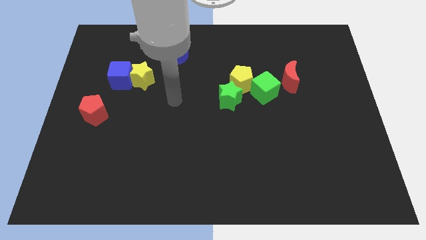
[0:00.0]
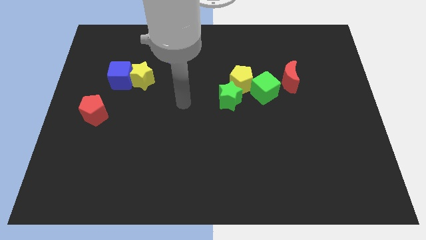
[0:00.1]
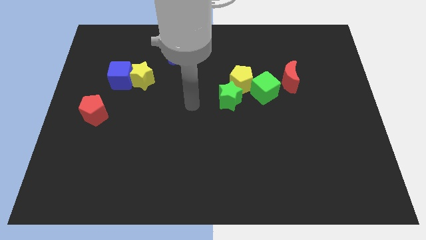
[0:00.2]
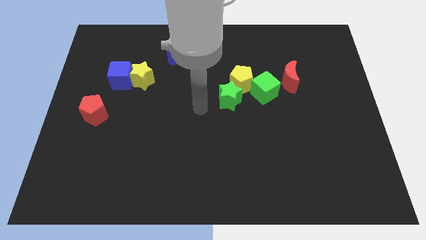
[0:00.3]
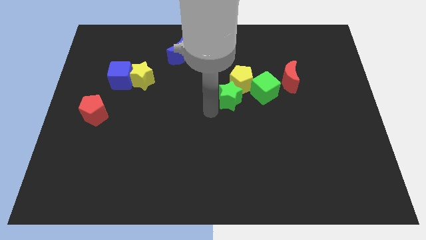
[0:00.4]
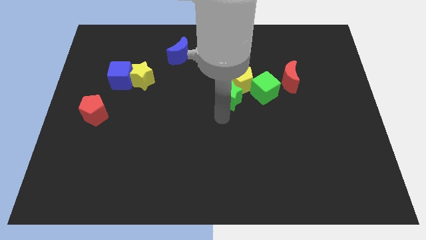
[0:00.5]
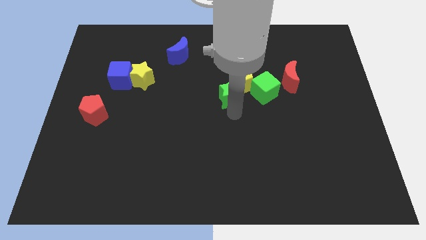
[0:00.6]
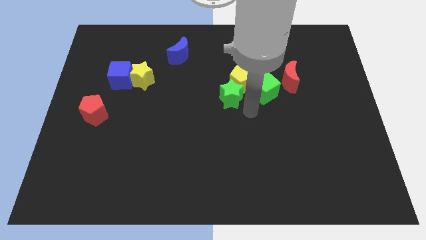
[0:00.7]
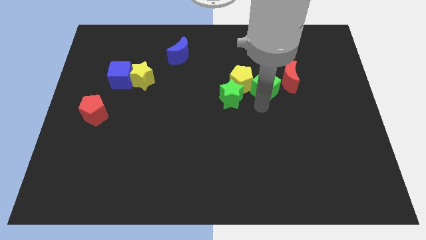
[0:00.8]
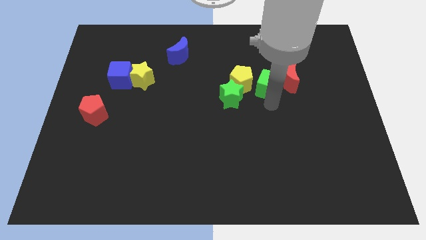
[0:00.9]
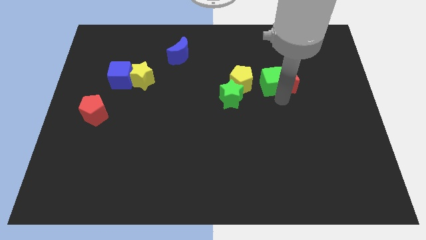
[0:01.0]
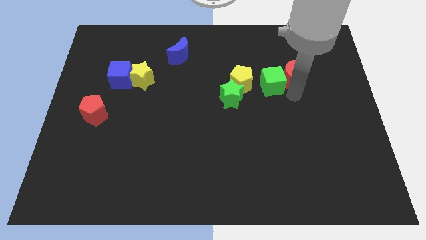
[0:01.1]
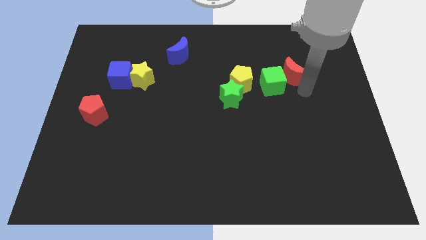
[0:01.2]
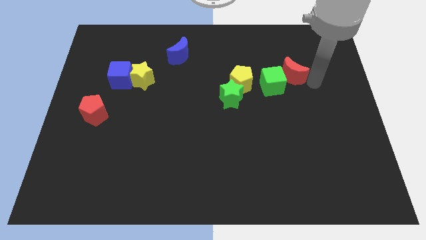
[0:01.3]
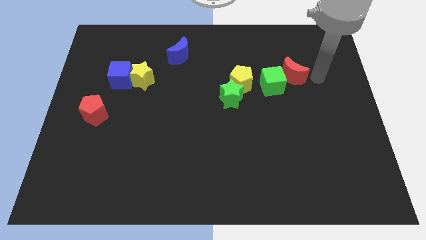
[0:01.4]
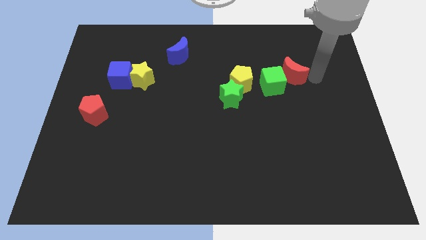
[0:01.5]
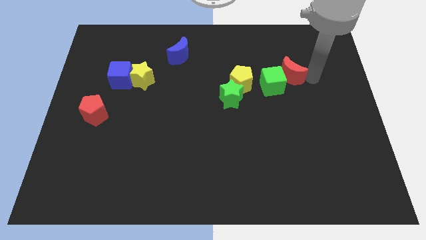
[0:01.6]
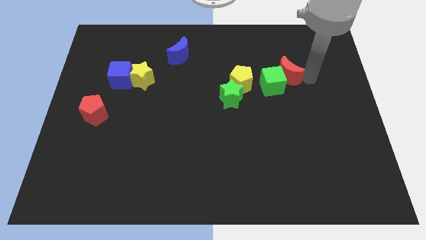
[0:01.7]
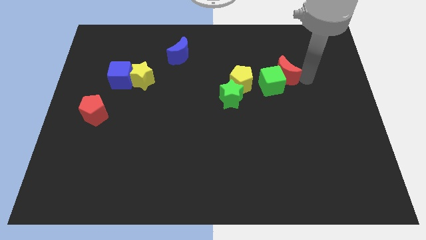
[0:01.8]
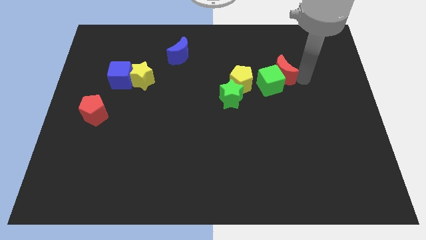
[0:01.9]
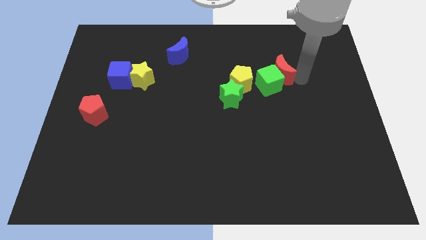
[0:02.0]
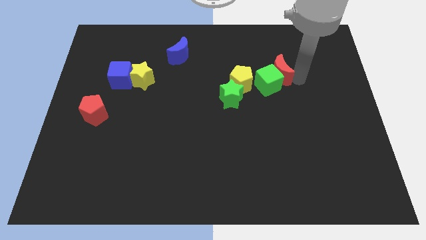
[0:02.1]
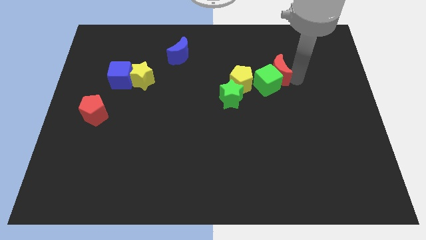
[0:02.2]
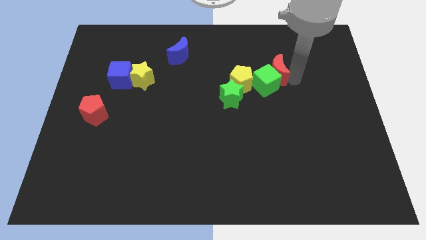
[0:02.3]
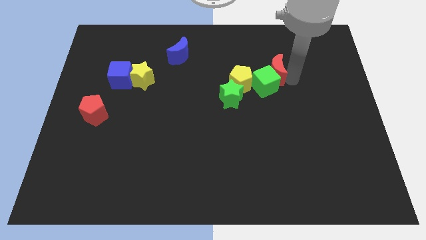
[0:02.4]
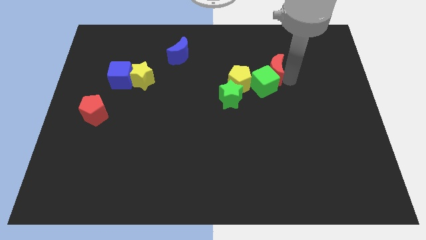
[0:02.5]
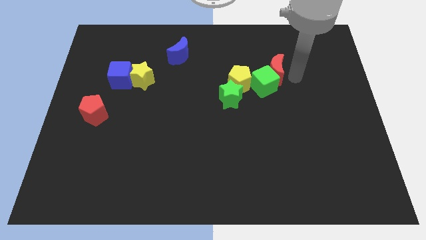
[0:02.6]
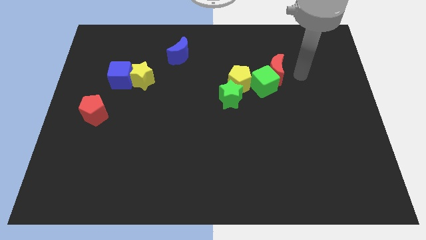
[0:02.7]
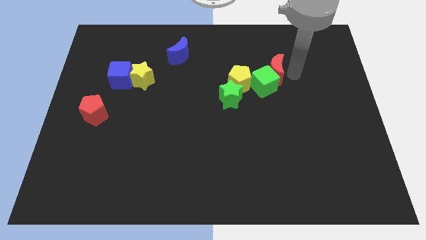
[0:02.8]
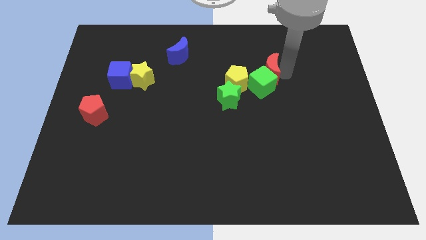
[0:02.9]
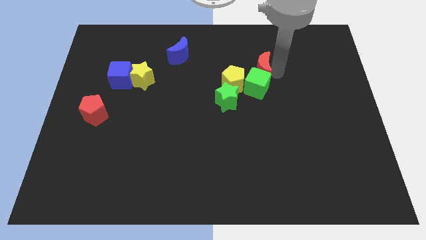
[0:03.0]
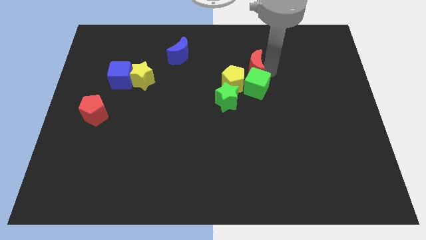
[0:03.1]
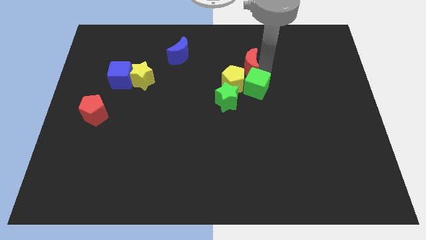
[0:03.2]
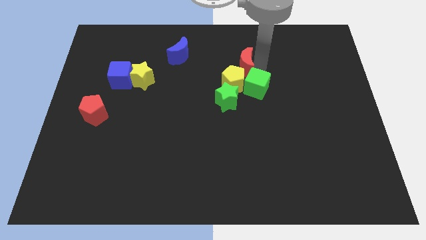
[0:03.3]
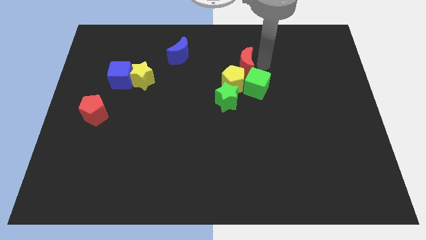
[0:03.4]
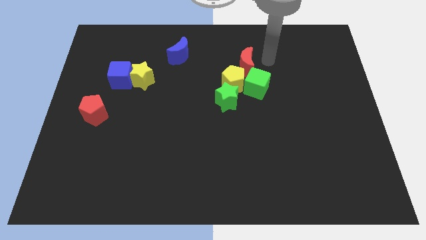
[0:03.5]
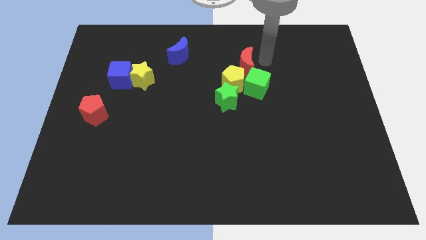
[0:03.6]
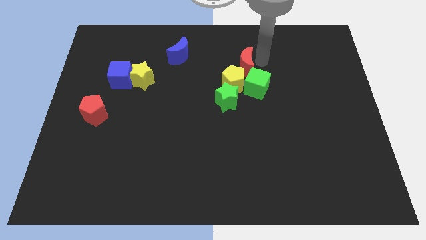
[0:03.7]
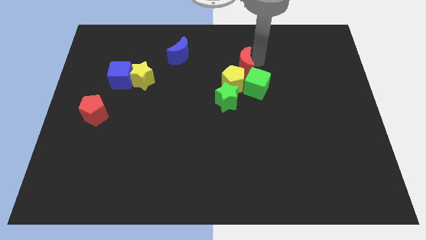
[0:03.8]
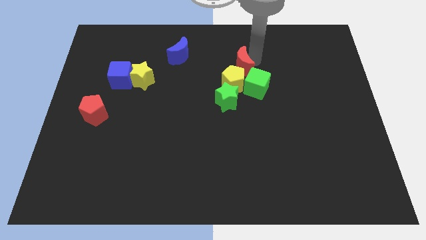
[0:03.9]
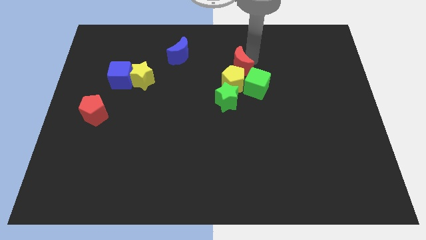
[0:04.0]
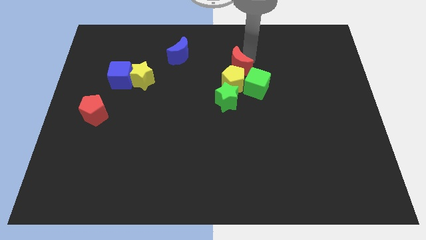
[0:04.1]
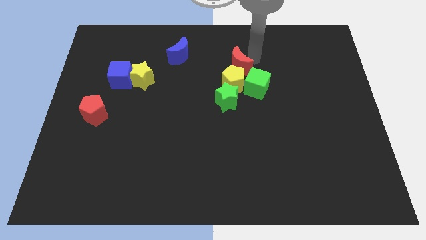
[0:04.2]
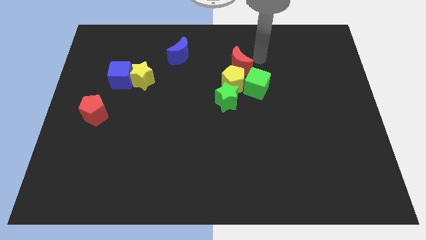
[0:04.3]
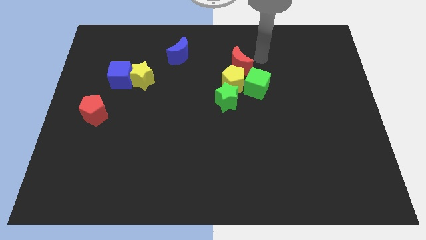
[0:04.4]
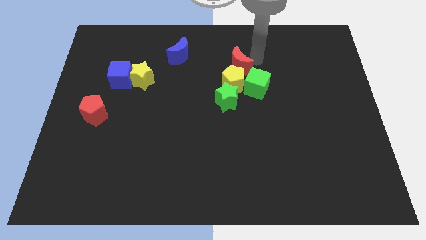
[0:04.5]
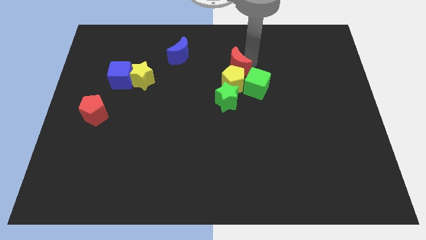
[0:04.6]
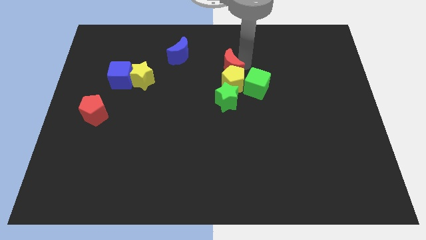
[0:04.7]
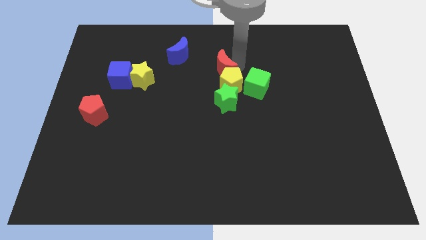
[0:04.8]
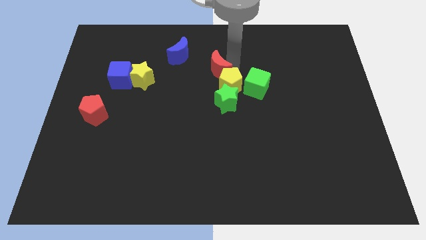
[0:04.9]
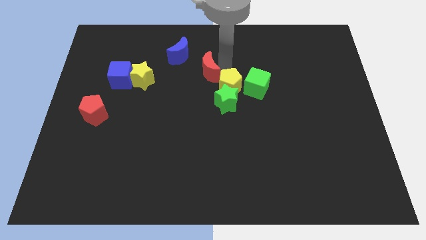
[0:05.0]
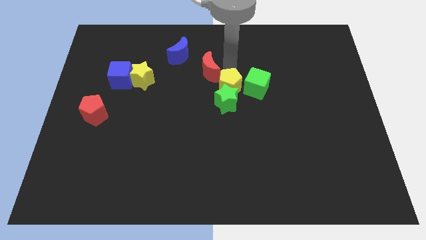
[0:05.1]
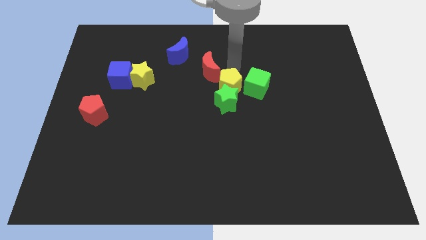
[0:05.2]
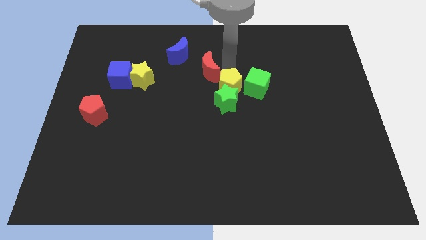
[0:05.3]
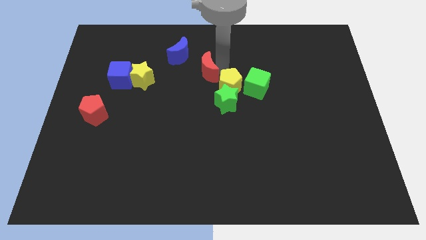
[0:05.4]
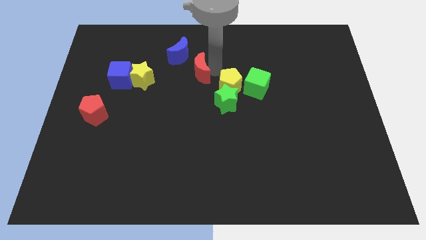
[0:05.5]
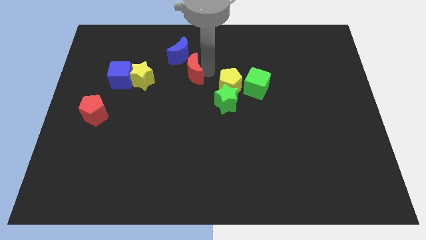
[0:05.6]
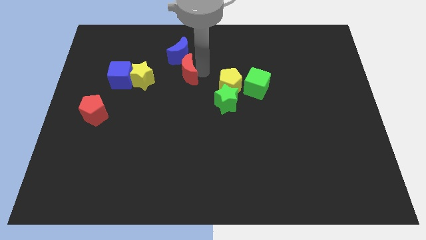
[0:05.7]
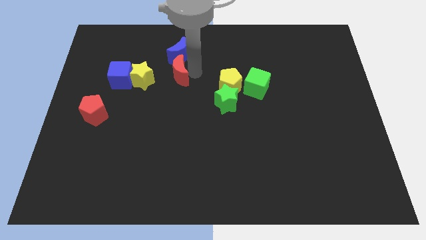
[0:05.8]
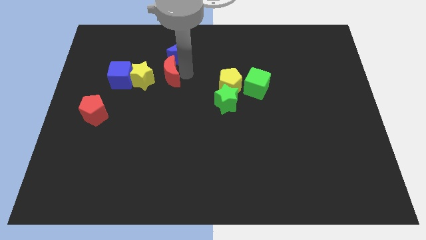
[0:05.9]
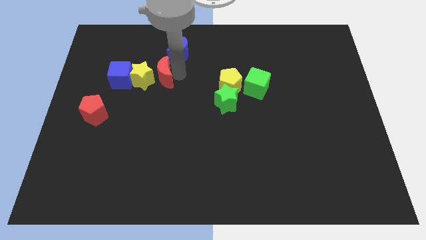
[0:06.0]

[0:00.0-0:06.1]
slide the red moon towards the yellow star

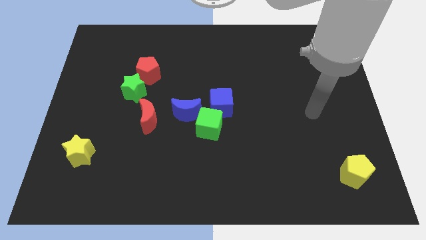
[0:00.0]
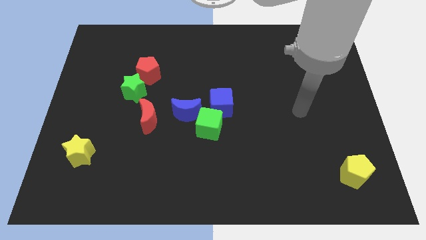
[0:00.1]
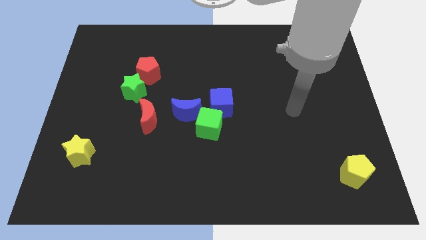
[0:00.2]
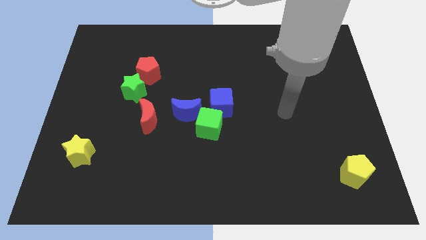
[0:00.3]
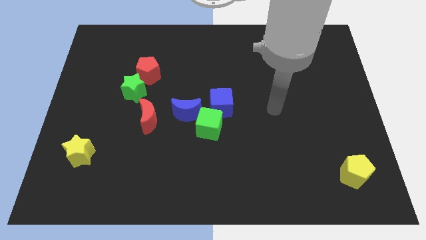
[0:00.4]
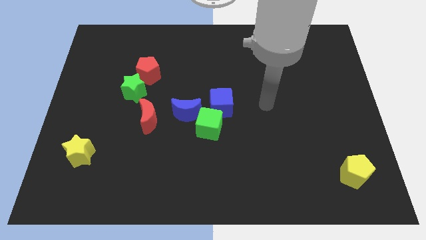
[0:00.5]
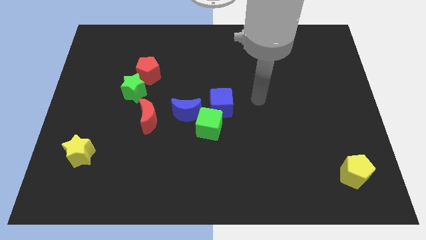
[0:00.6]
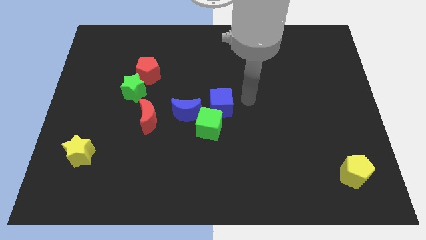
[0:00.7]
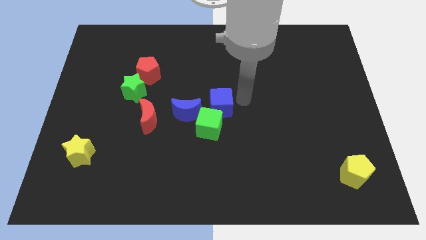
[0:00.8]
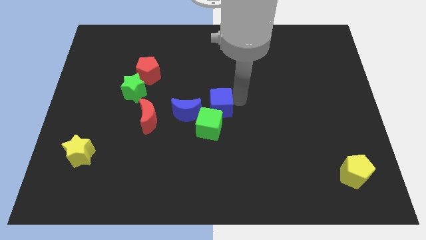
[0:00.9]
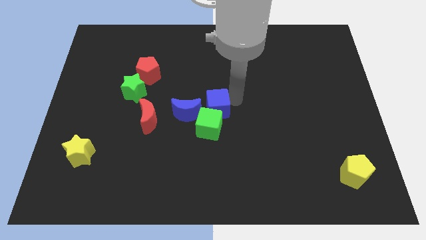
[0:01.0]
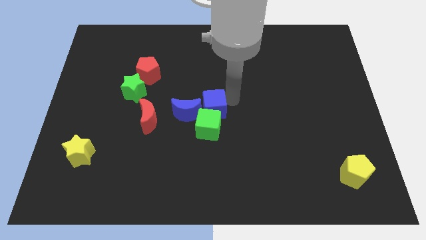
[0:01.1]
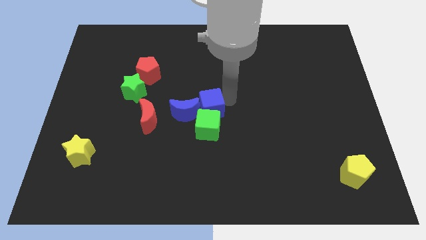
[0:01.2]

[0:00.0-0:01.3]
push the blue cube towards the blue moon
